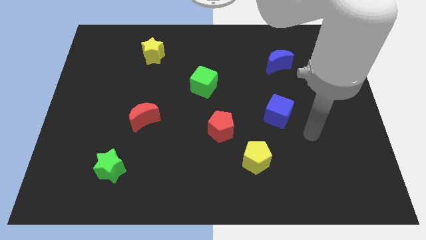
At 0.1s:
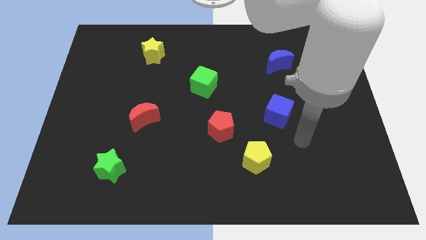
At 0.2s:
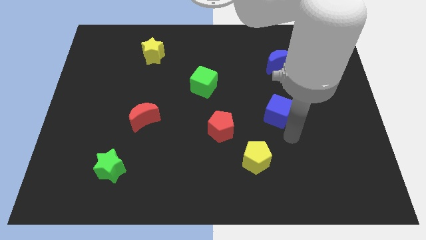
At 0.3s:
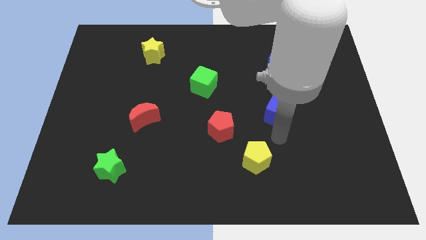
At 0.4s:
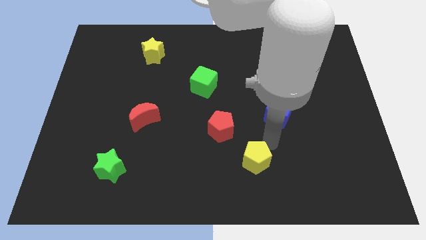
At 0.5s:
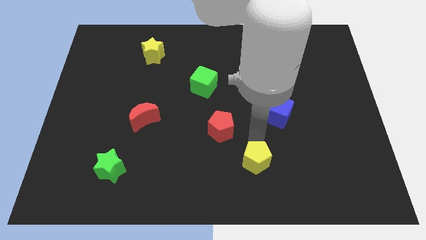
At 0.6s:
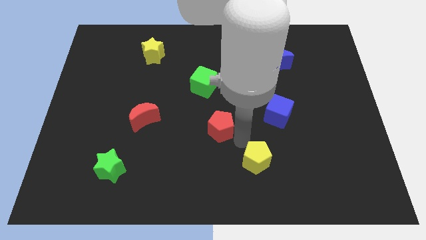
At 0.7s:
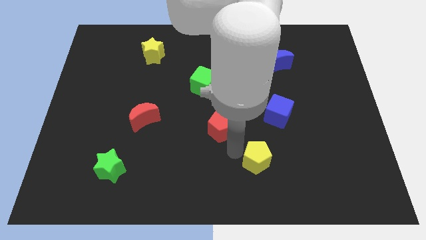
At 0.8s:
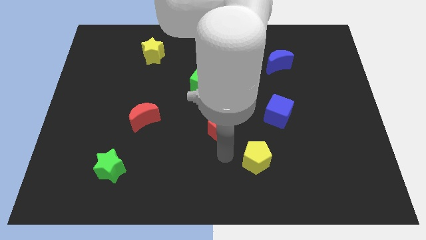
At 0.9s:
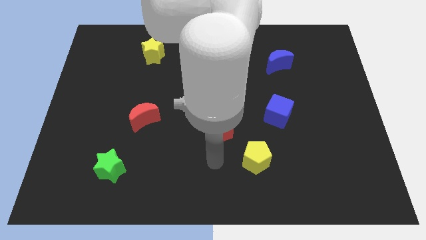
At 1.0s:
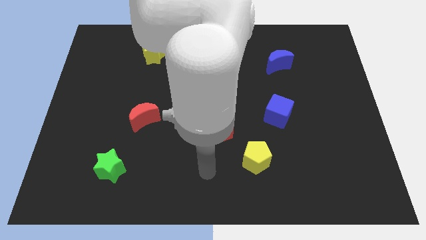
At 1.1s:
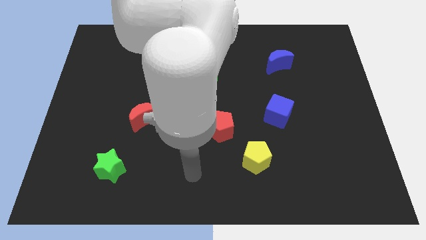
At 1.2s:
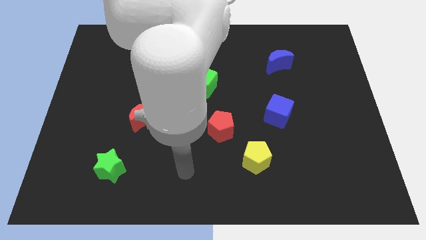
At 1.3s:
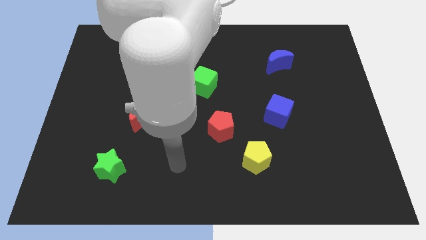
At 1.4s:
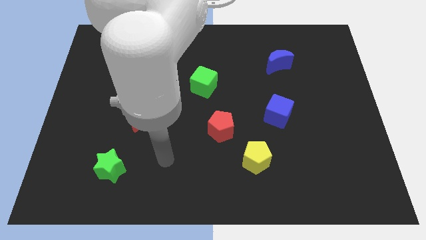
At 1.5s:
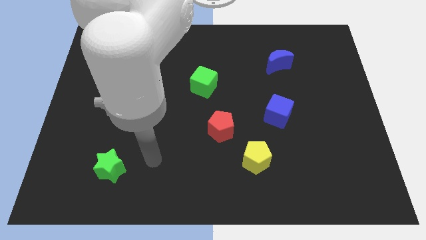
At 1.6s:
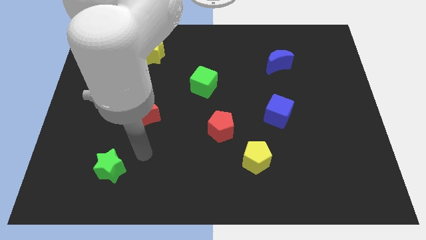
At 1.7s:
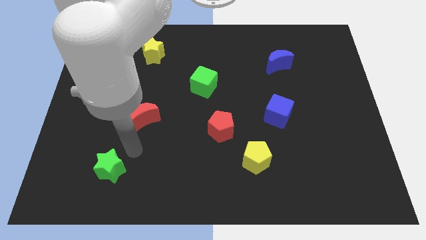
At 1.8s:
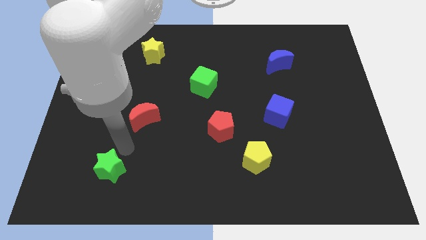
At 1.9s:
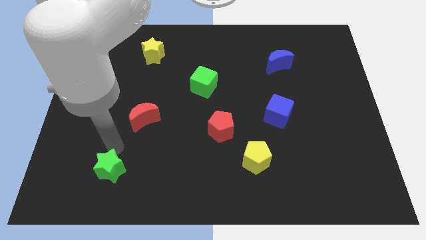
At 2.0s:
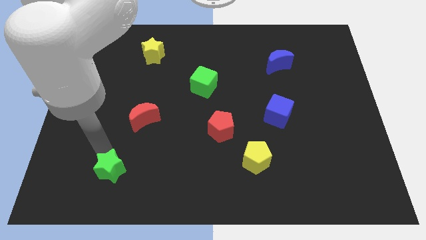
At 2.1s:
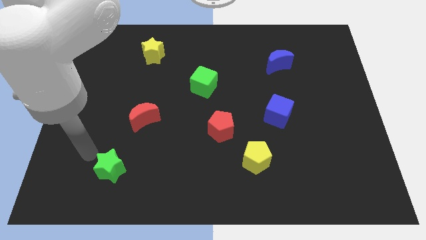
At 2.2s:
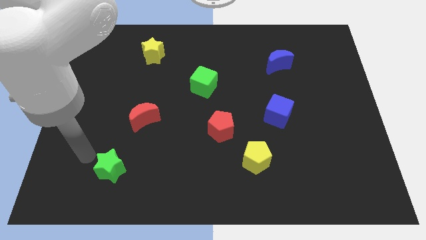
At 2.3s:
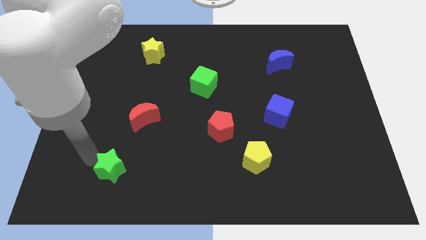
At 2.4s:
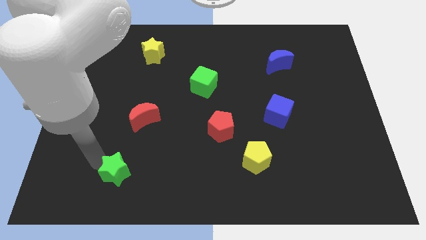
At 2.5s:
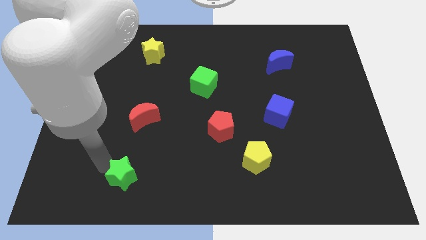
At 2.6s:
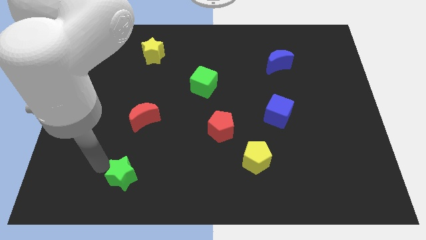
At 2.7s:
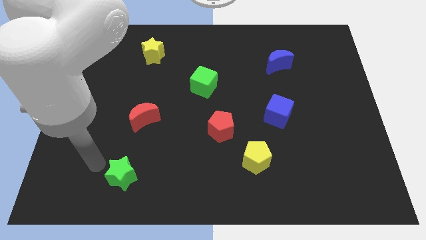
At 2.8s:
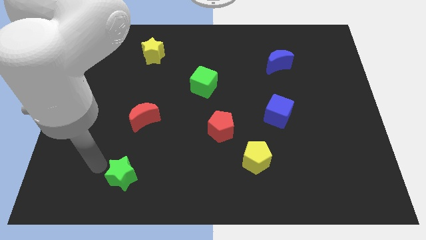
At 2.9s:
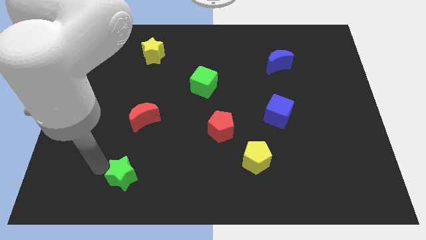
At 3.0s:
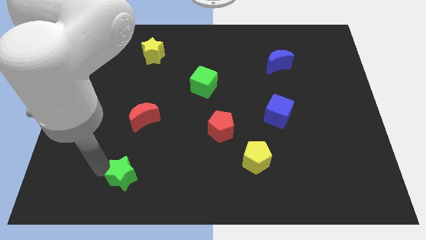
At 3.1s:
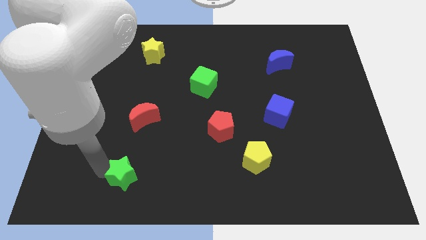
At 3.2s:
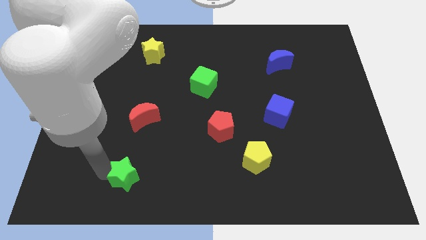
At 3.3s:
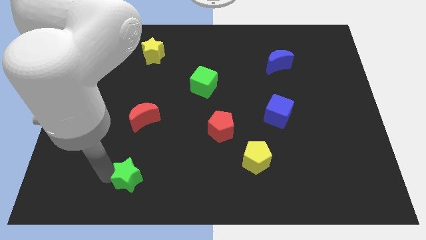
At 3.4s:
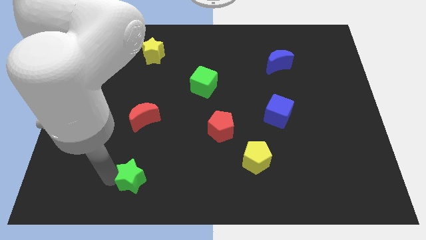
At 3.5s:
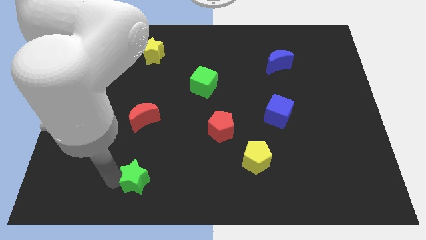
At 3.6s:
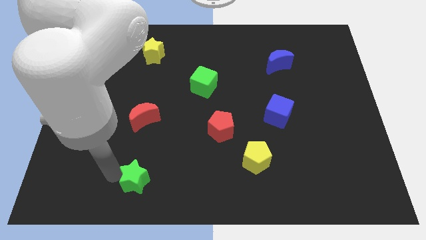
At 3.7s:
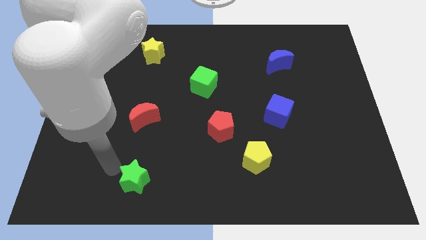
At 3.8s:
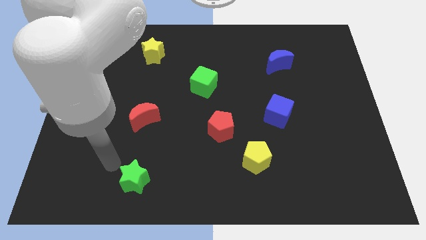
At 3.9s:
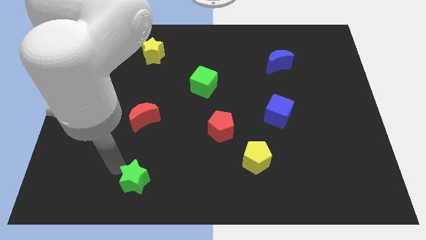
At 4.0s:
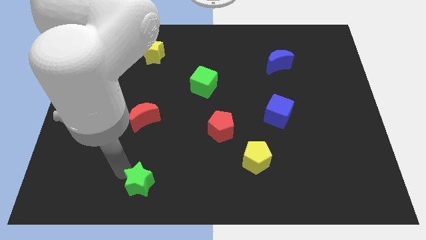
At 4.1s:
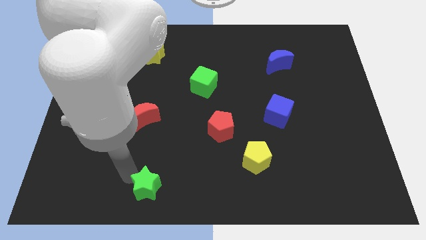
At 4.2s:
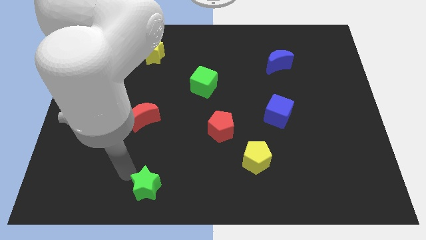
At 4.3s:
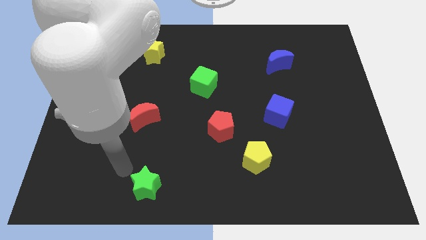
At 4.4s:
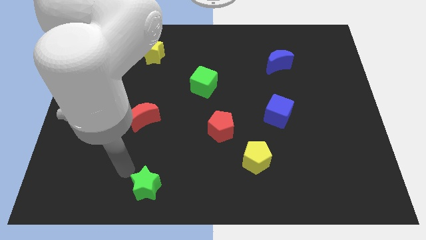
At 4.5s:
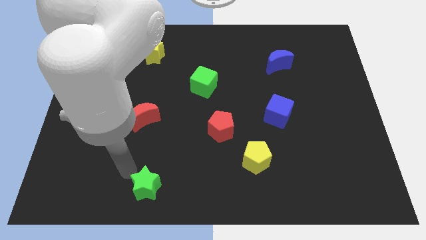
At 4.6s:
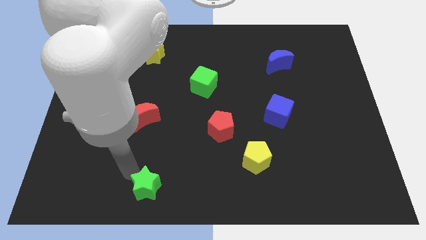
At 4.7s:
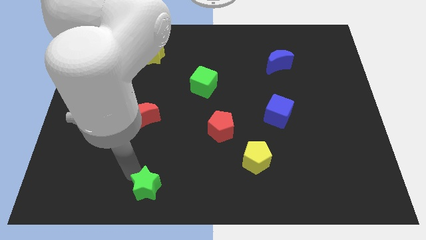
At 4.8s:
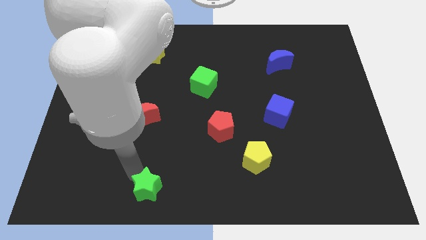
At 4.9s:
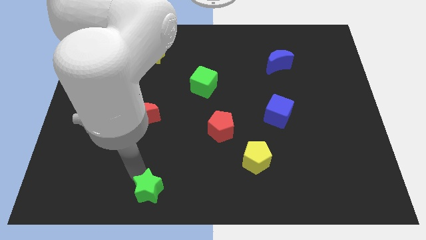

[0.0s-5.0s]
push the green star to the bottom

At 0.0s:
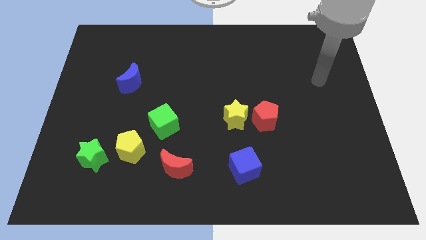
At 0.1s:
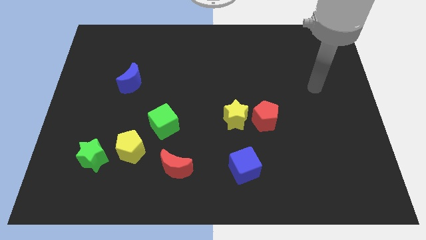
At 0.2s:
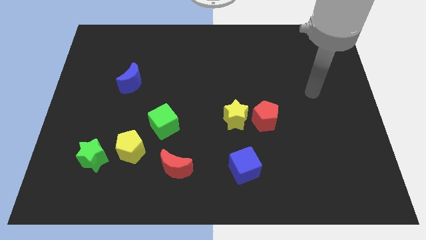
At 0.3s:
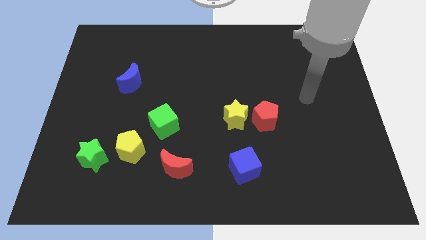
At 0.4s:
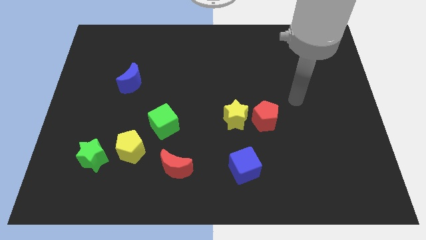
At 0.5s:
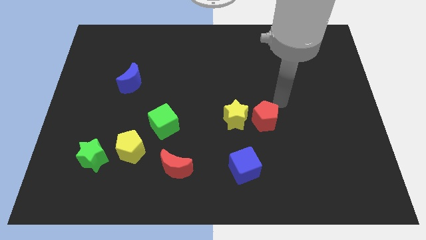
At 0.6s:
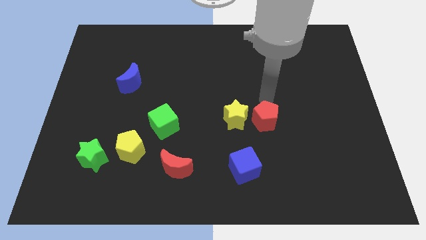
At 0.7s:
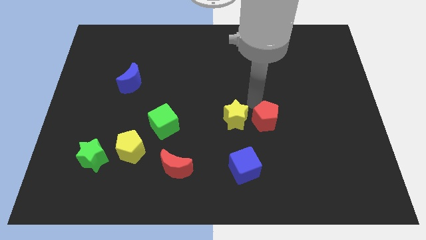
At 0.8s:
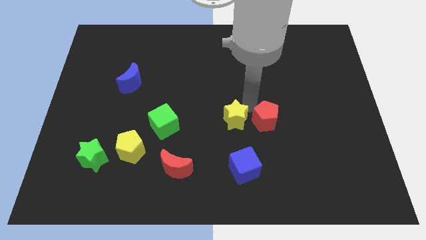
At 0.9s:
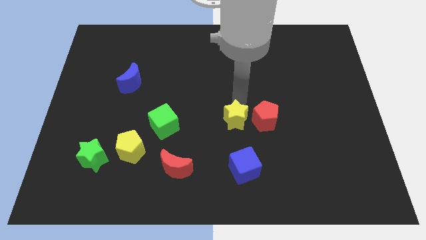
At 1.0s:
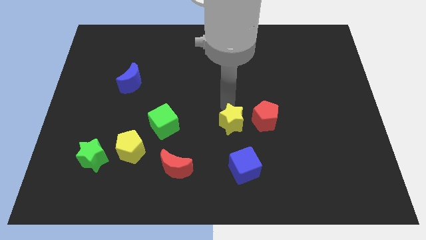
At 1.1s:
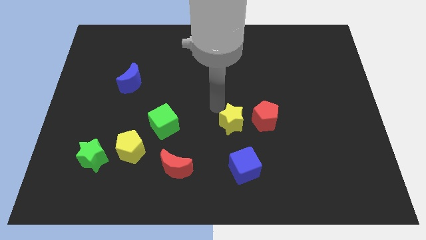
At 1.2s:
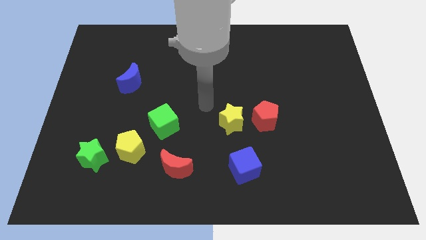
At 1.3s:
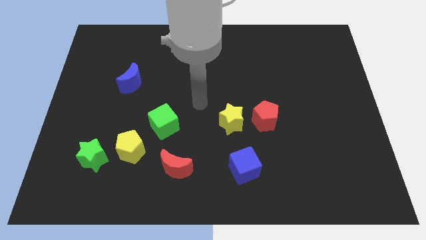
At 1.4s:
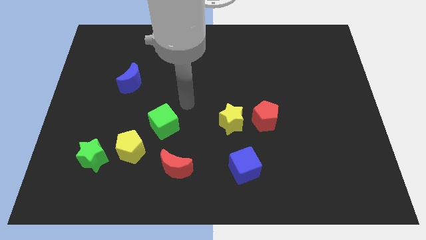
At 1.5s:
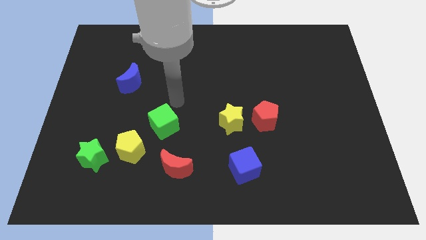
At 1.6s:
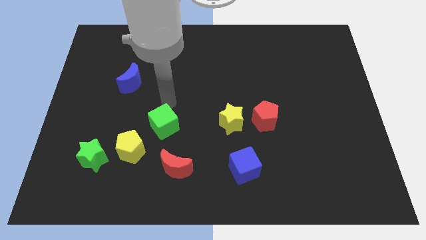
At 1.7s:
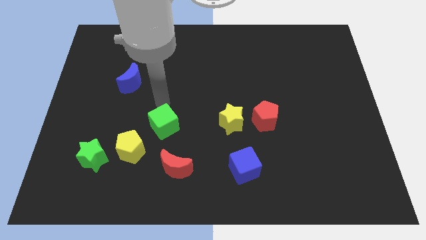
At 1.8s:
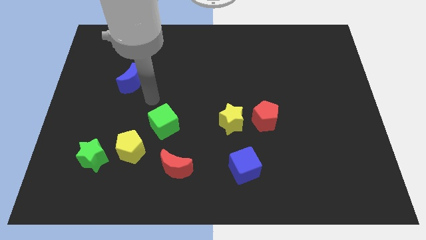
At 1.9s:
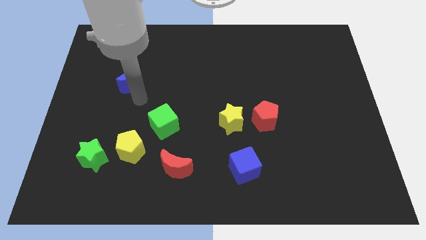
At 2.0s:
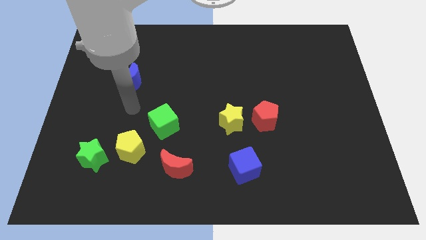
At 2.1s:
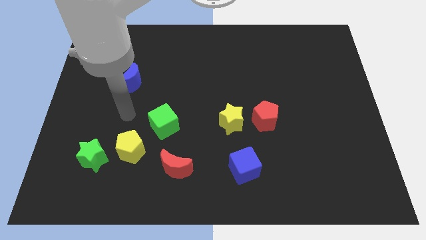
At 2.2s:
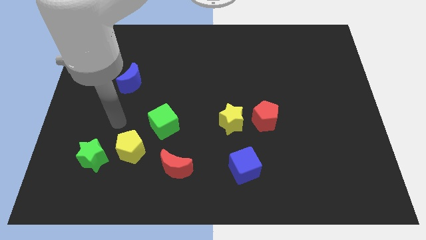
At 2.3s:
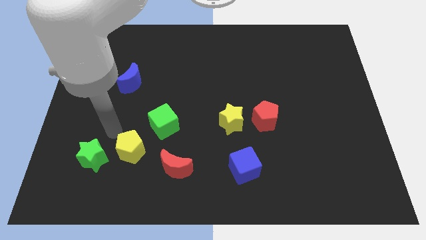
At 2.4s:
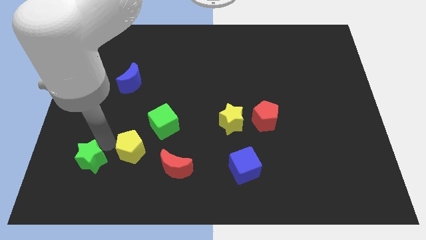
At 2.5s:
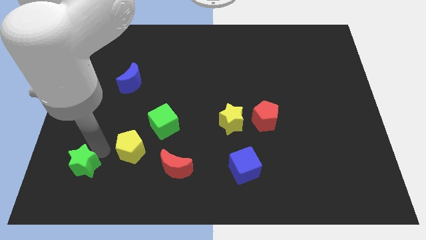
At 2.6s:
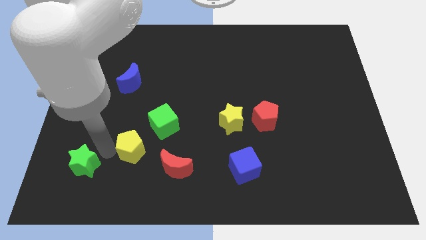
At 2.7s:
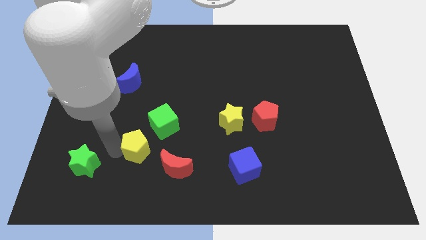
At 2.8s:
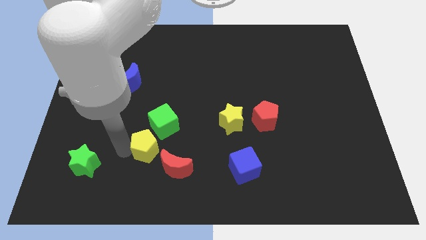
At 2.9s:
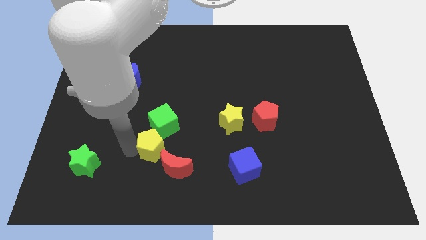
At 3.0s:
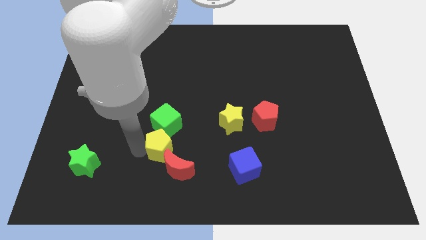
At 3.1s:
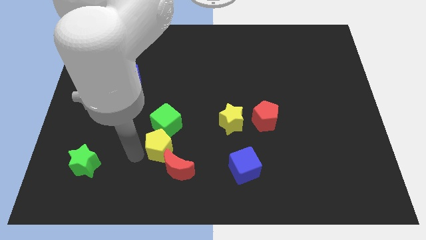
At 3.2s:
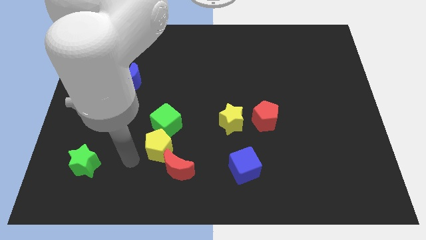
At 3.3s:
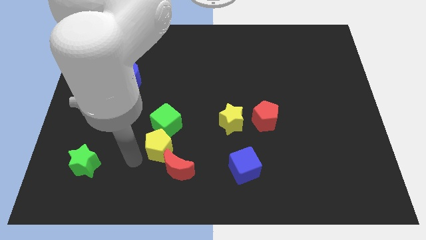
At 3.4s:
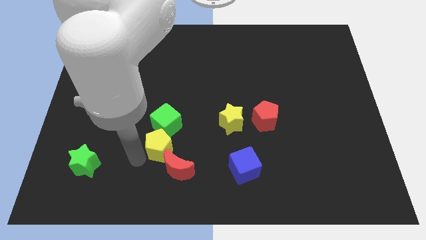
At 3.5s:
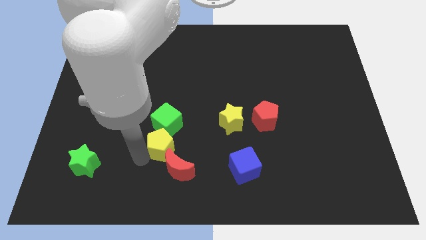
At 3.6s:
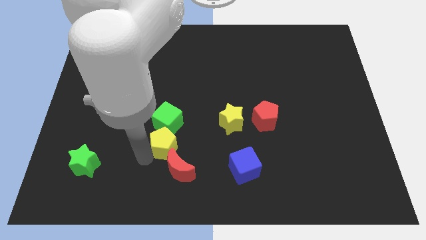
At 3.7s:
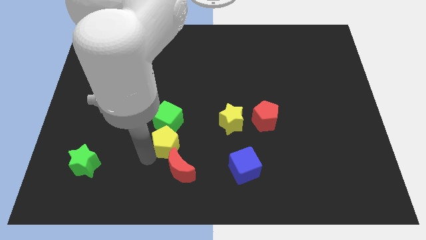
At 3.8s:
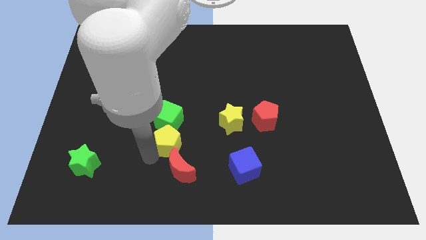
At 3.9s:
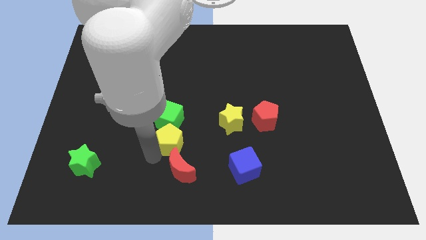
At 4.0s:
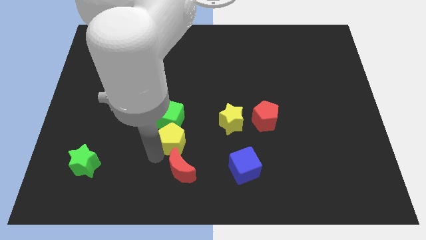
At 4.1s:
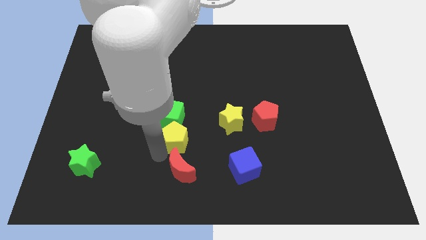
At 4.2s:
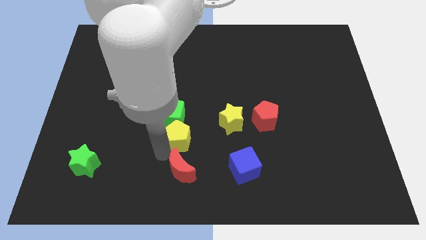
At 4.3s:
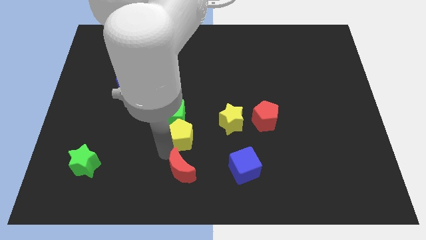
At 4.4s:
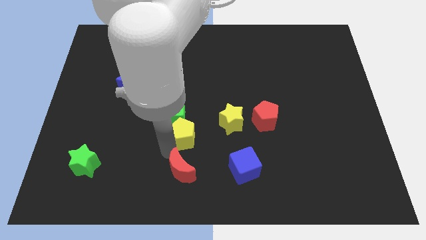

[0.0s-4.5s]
push the yellow pentagon to the center
